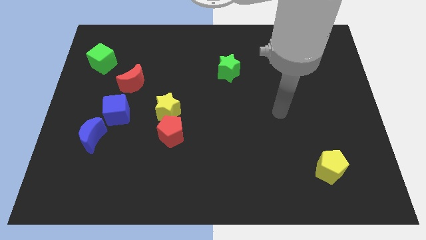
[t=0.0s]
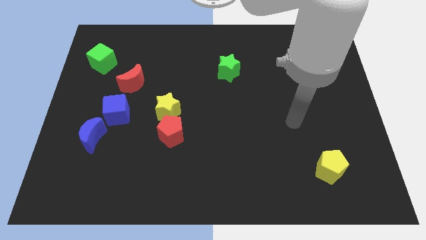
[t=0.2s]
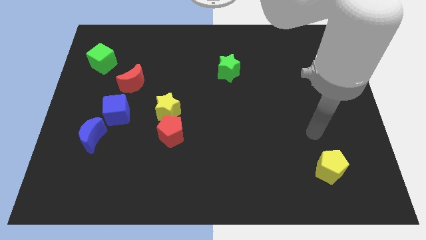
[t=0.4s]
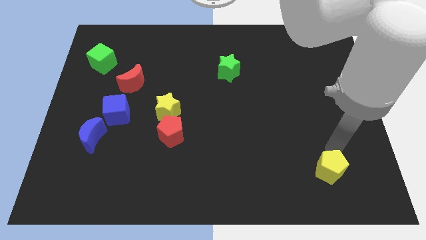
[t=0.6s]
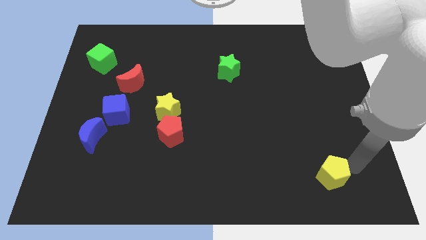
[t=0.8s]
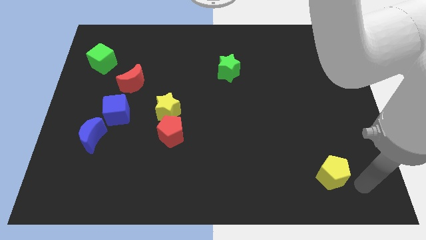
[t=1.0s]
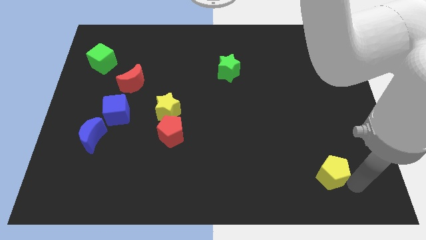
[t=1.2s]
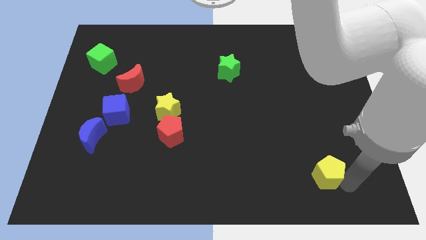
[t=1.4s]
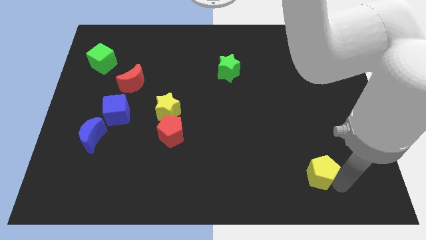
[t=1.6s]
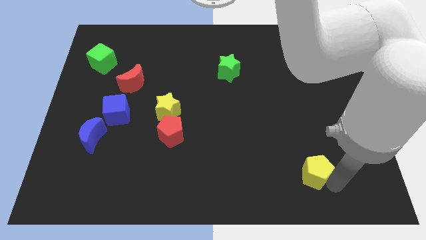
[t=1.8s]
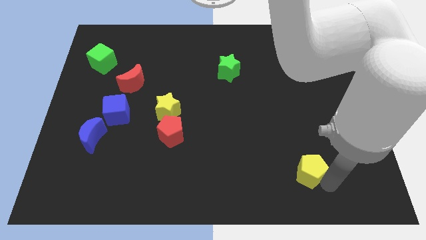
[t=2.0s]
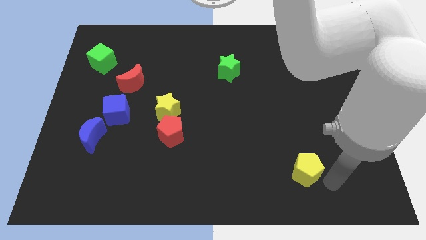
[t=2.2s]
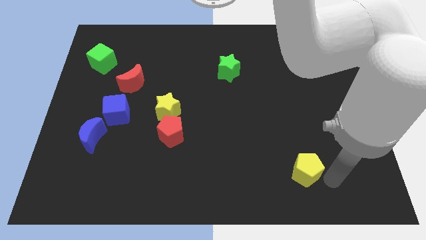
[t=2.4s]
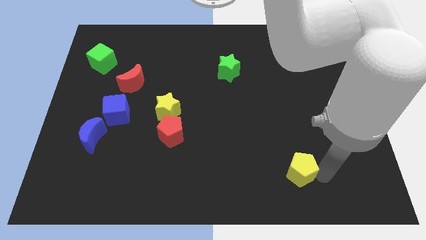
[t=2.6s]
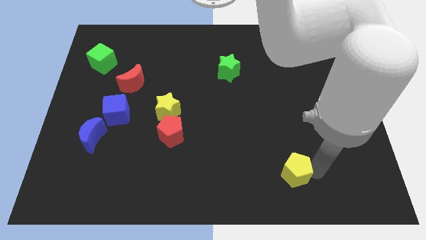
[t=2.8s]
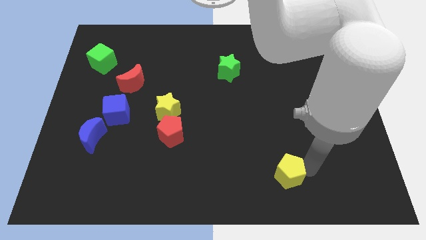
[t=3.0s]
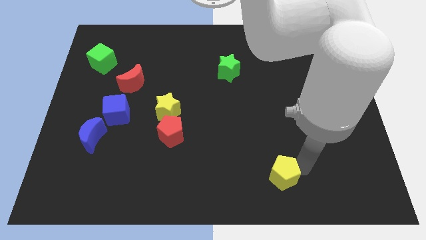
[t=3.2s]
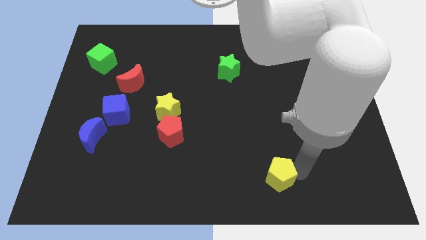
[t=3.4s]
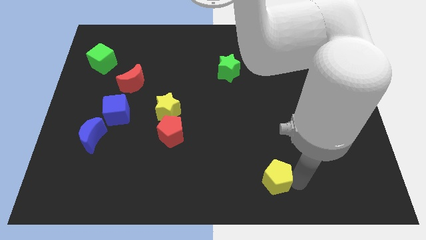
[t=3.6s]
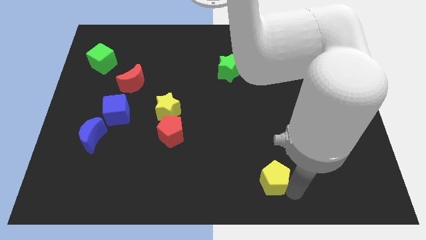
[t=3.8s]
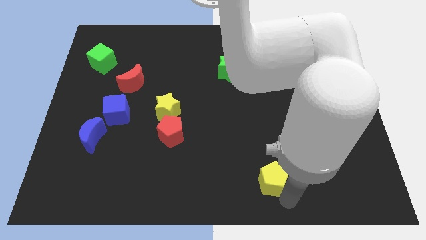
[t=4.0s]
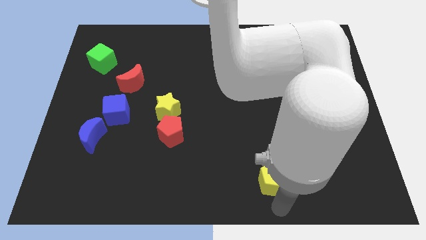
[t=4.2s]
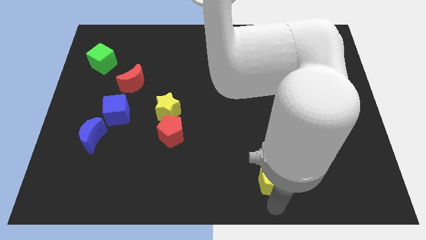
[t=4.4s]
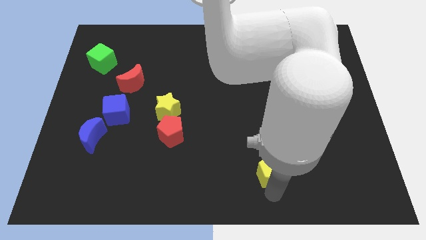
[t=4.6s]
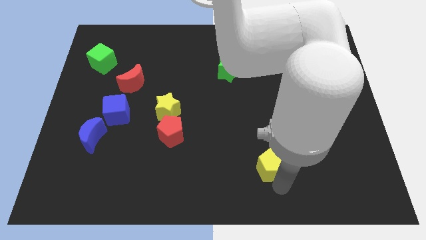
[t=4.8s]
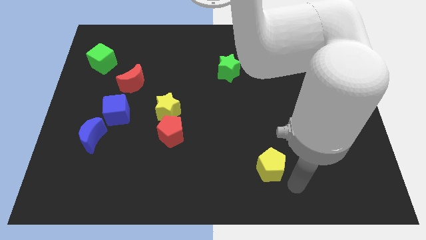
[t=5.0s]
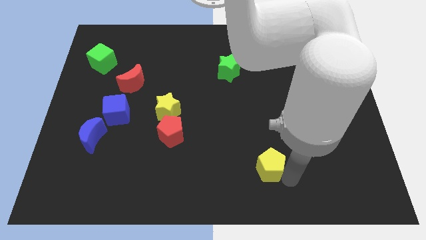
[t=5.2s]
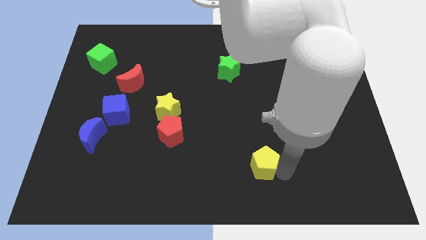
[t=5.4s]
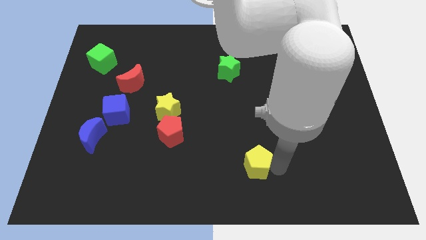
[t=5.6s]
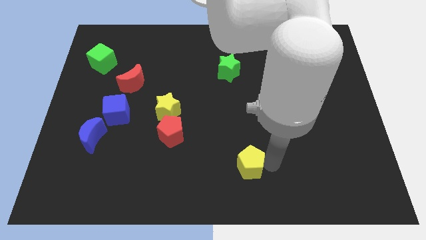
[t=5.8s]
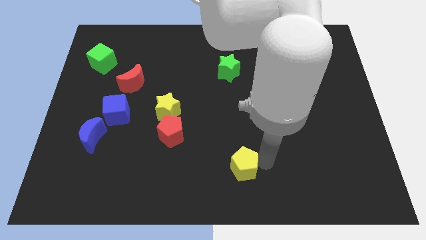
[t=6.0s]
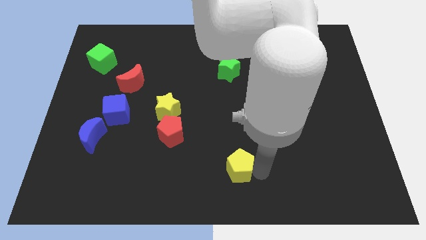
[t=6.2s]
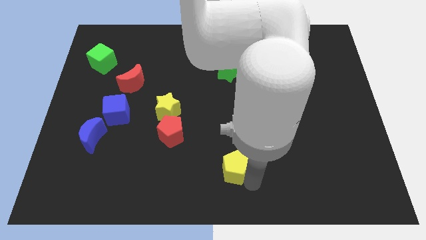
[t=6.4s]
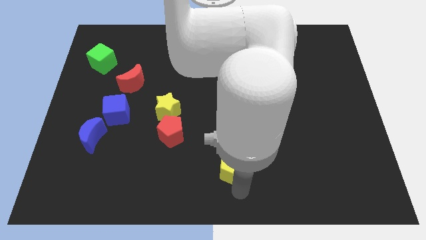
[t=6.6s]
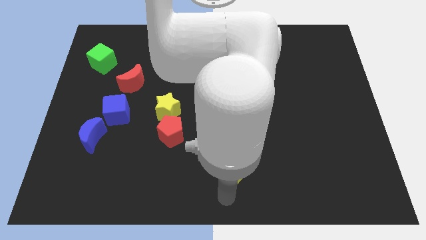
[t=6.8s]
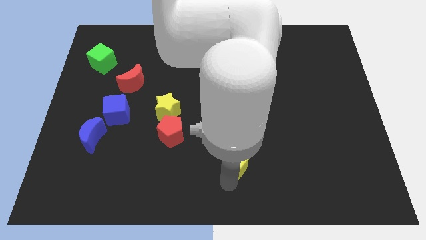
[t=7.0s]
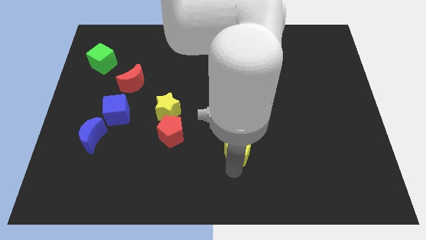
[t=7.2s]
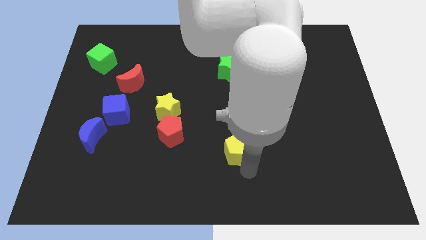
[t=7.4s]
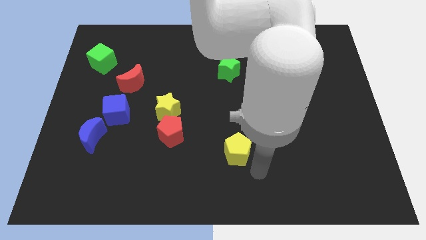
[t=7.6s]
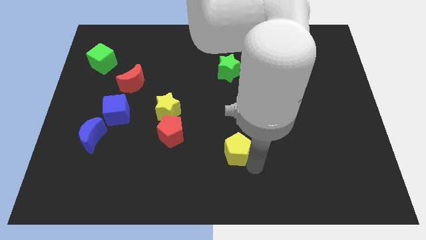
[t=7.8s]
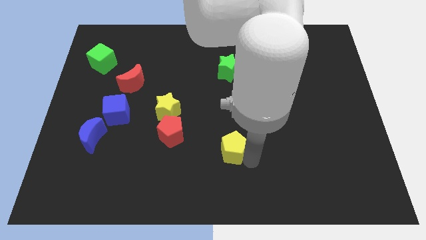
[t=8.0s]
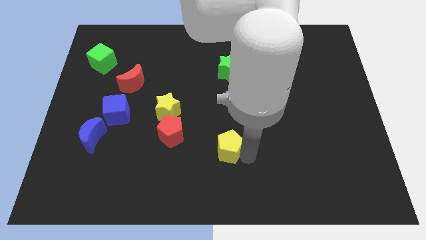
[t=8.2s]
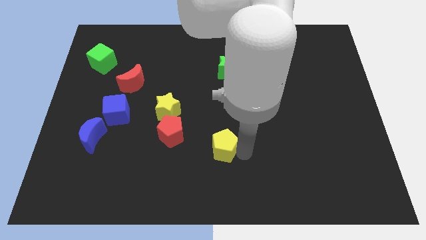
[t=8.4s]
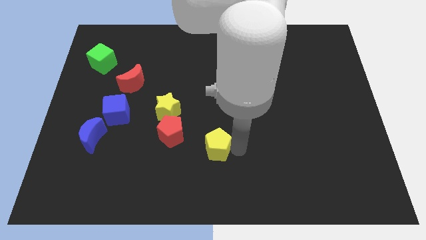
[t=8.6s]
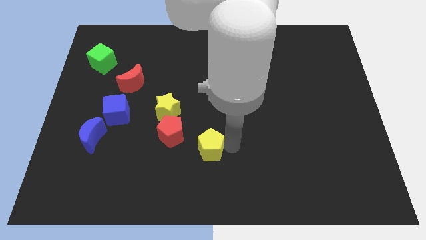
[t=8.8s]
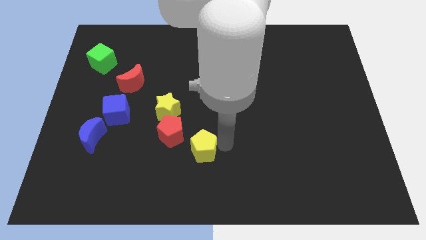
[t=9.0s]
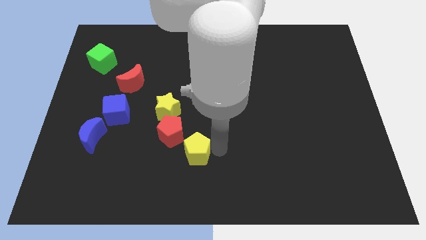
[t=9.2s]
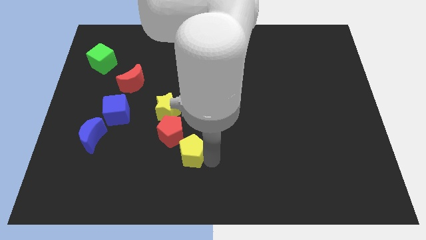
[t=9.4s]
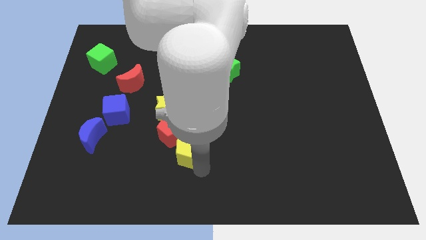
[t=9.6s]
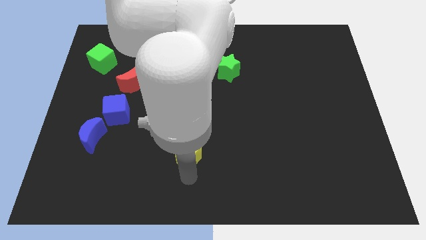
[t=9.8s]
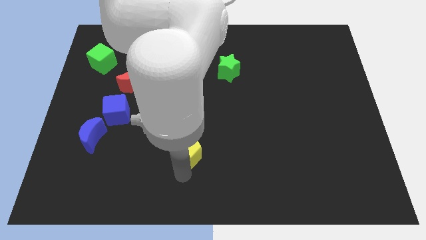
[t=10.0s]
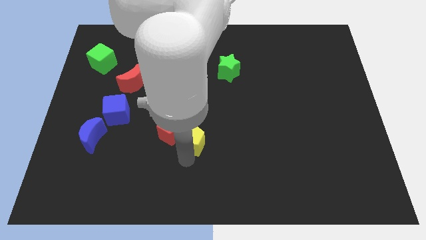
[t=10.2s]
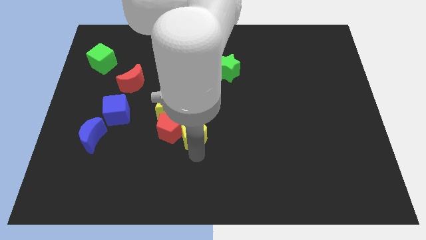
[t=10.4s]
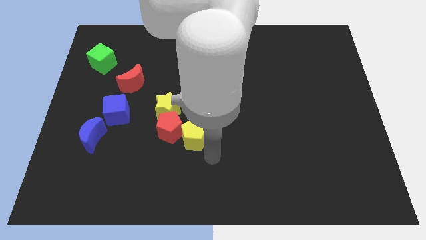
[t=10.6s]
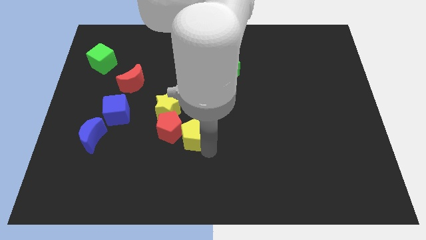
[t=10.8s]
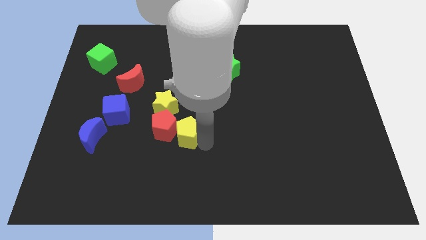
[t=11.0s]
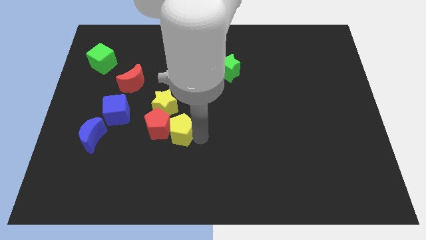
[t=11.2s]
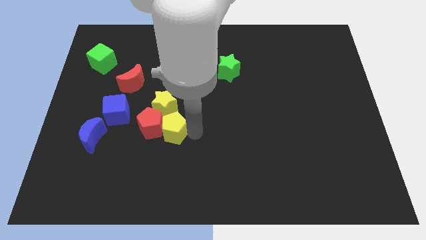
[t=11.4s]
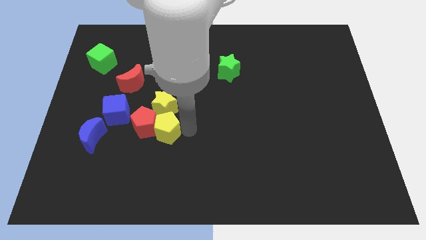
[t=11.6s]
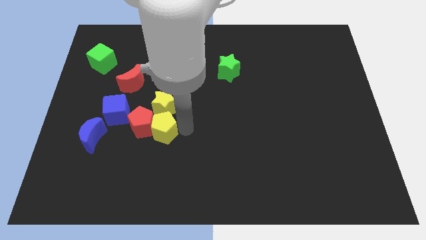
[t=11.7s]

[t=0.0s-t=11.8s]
put the yellow pentagon close to the yellow star

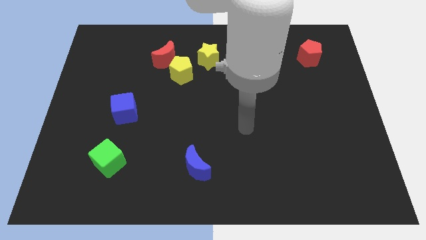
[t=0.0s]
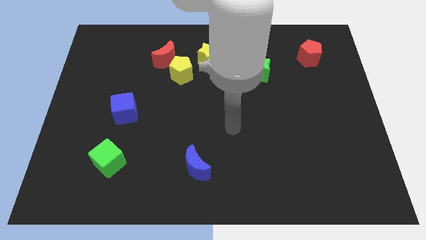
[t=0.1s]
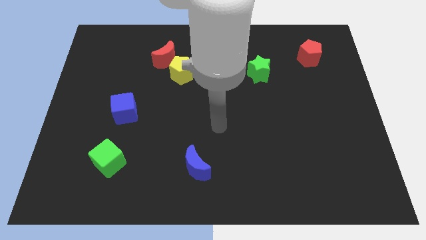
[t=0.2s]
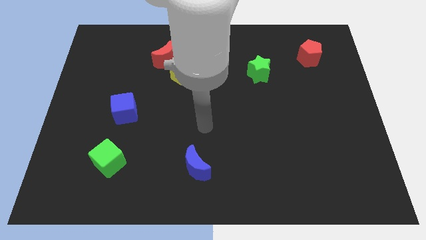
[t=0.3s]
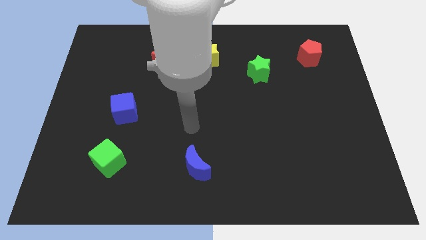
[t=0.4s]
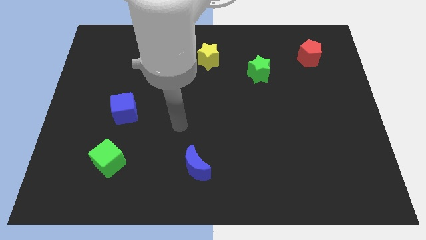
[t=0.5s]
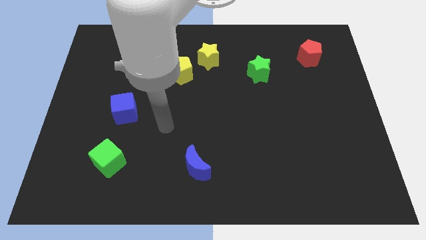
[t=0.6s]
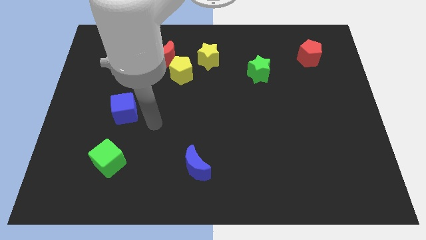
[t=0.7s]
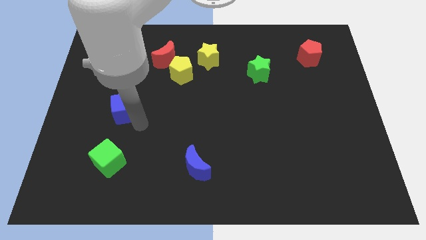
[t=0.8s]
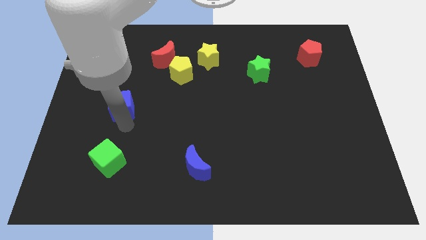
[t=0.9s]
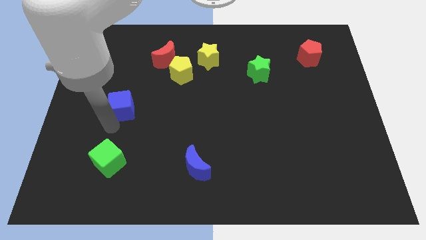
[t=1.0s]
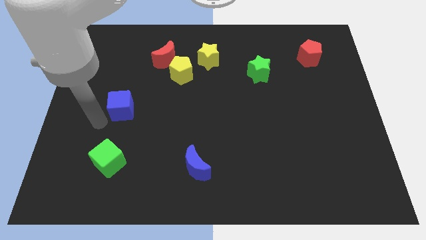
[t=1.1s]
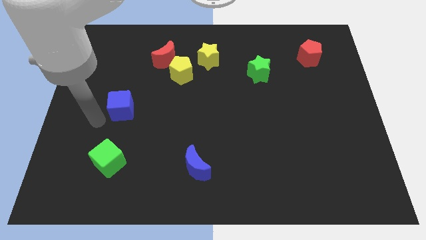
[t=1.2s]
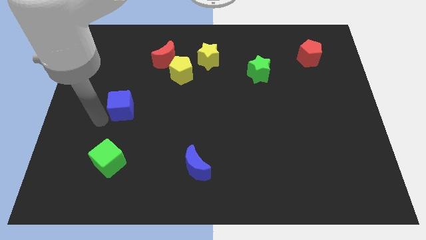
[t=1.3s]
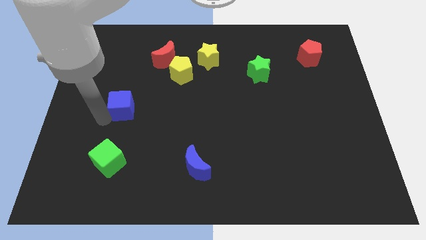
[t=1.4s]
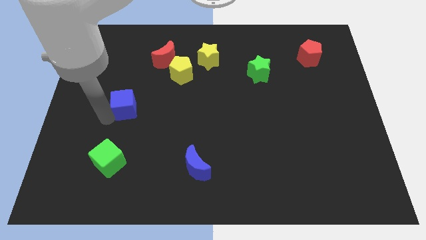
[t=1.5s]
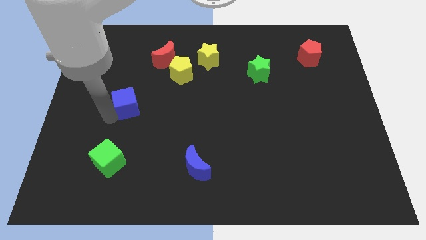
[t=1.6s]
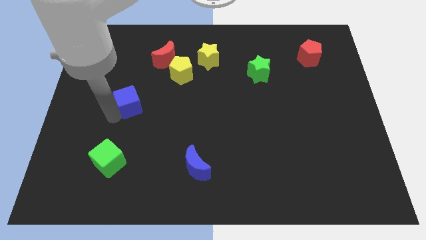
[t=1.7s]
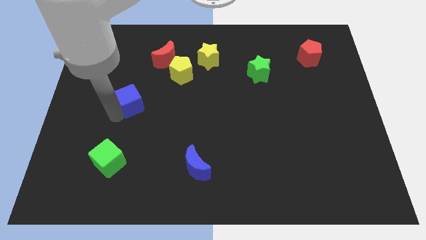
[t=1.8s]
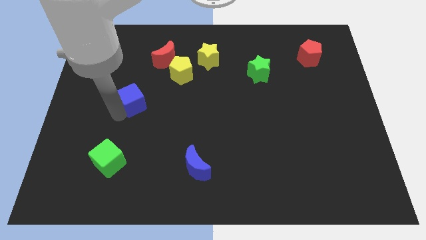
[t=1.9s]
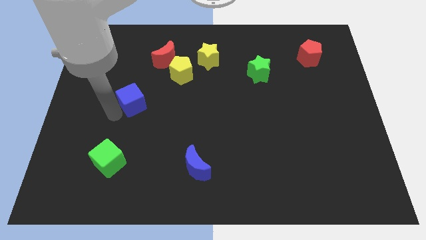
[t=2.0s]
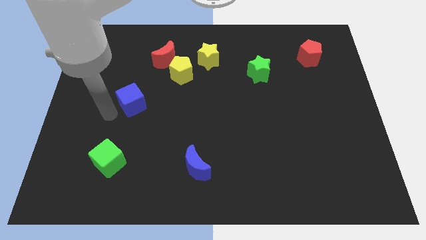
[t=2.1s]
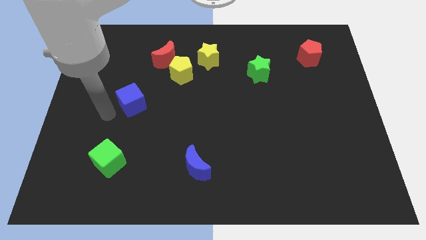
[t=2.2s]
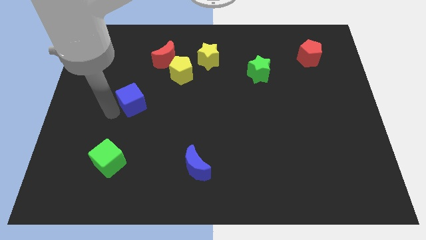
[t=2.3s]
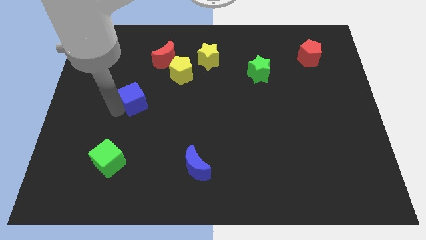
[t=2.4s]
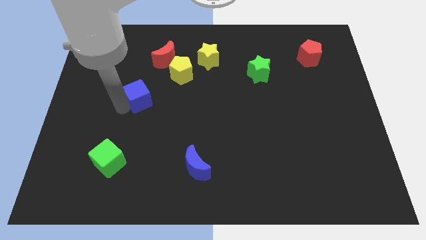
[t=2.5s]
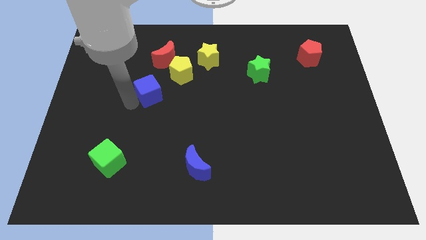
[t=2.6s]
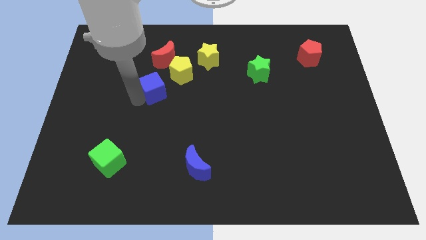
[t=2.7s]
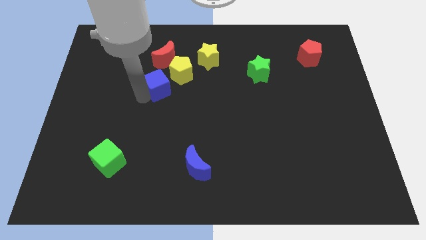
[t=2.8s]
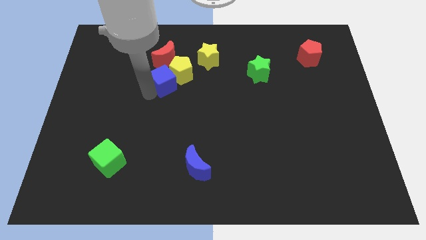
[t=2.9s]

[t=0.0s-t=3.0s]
move the blue cube next to the yellow pentagon
